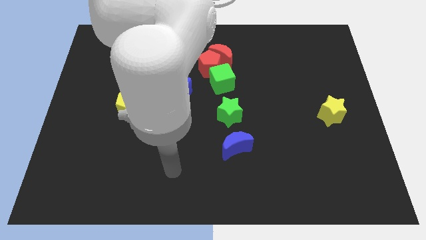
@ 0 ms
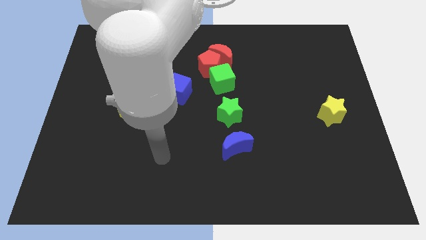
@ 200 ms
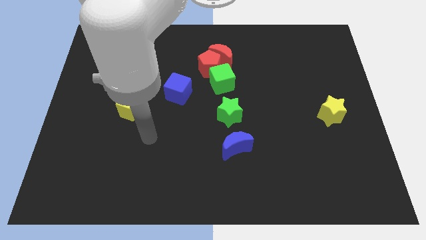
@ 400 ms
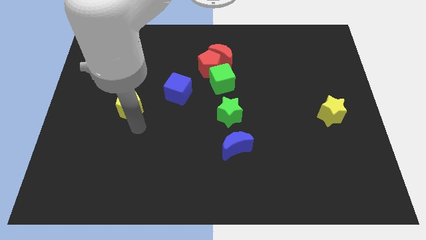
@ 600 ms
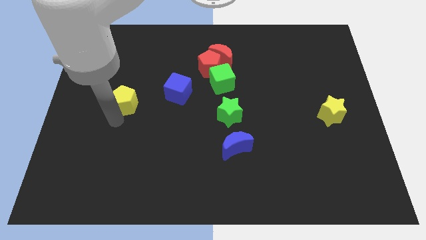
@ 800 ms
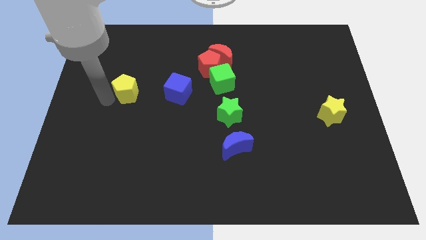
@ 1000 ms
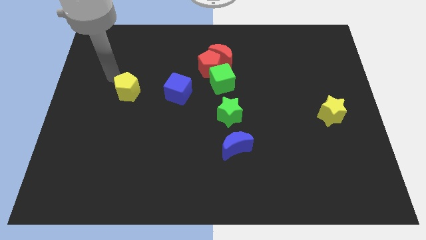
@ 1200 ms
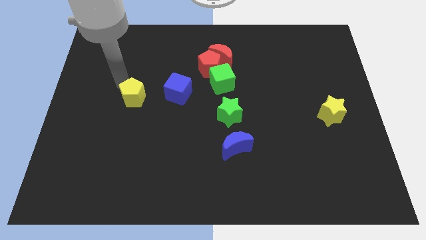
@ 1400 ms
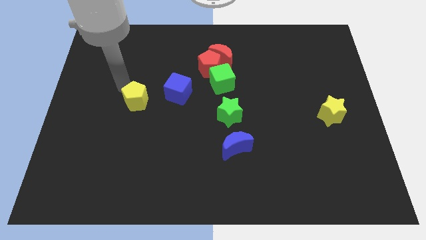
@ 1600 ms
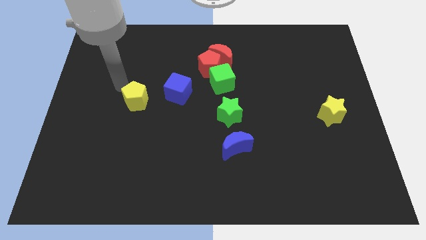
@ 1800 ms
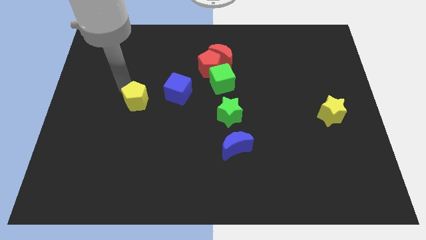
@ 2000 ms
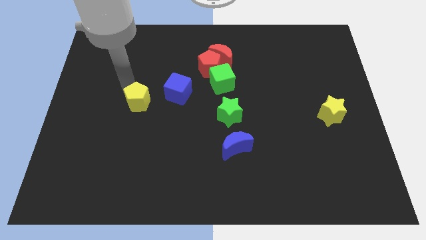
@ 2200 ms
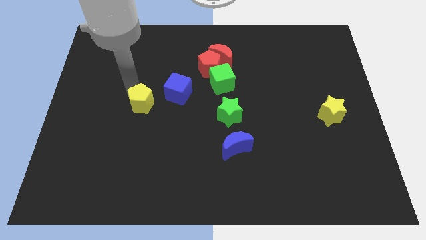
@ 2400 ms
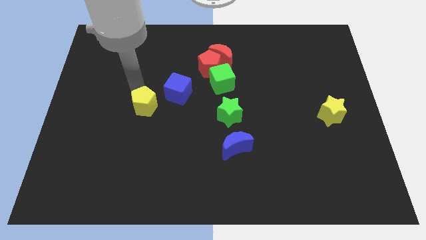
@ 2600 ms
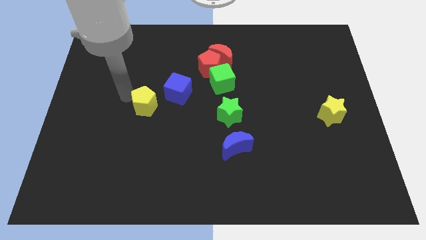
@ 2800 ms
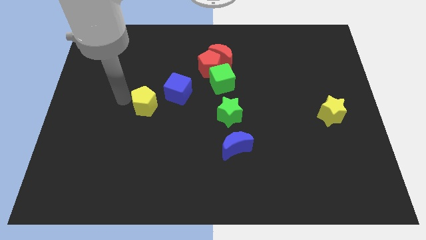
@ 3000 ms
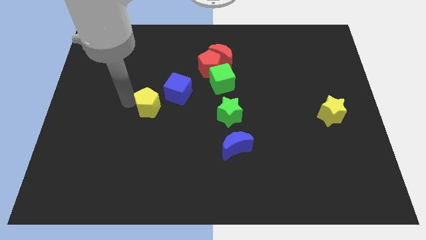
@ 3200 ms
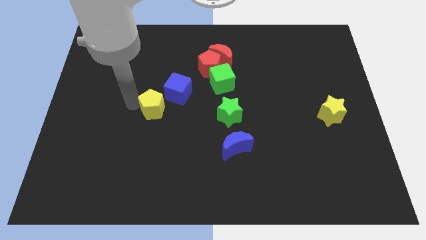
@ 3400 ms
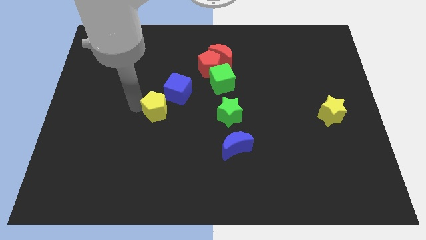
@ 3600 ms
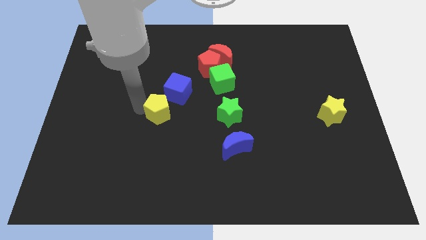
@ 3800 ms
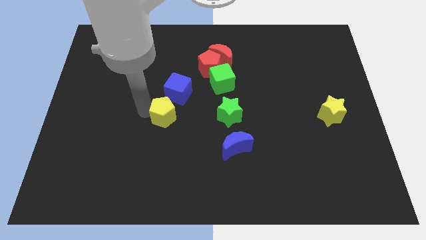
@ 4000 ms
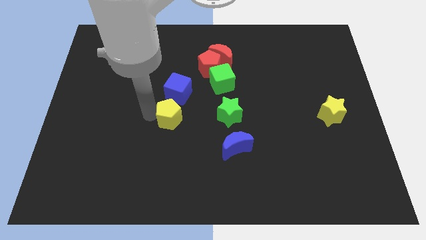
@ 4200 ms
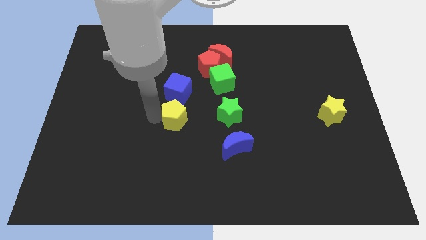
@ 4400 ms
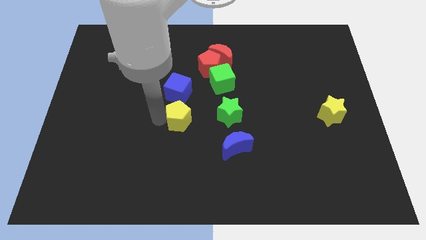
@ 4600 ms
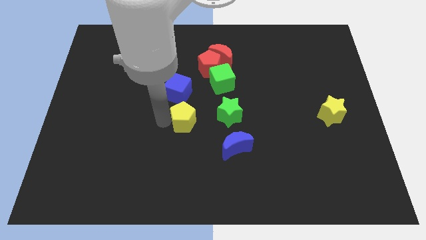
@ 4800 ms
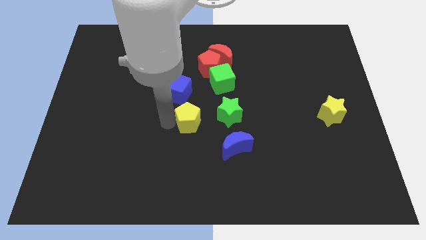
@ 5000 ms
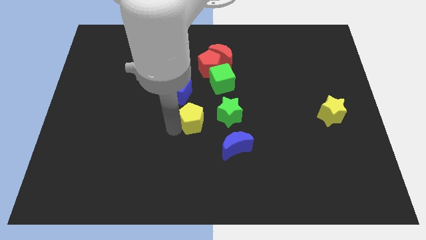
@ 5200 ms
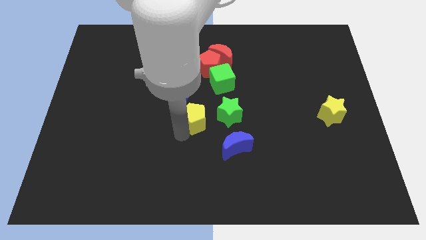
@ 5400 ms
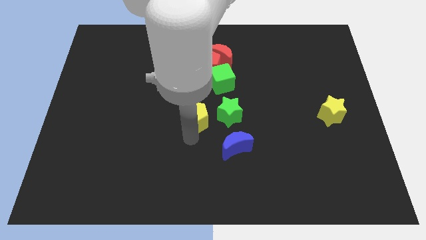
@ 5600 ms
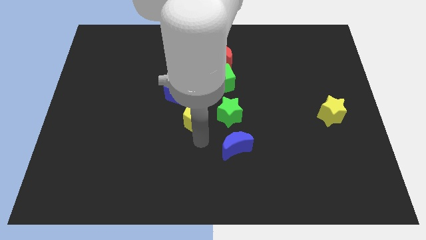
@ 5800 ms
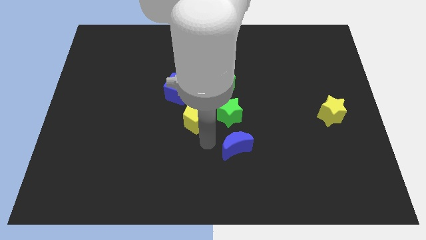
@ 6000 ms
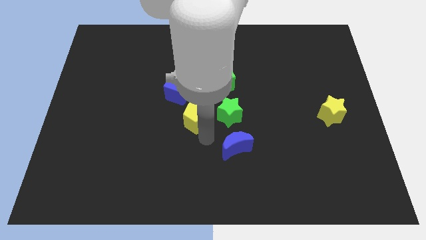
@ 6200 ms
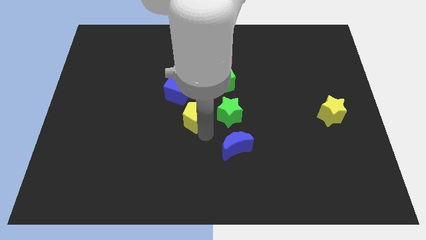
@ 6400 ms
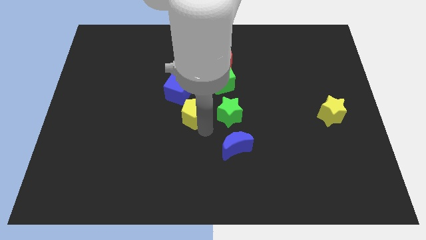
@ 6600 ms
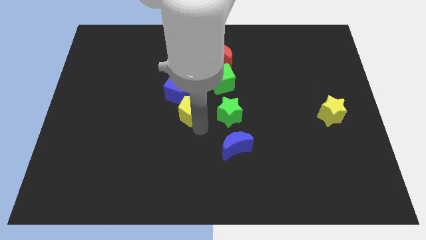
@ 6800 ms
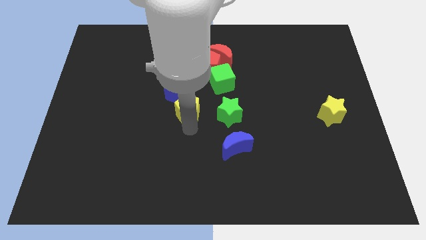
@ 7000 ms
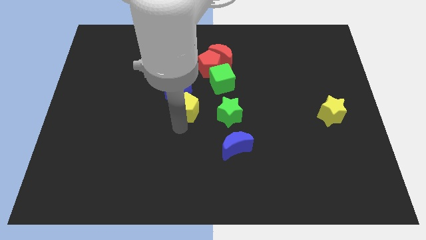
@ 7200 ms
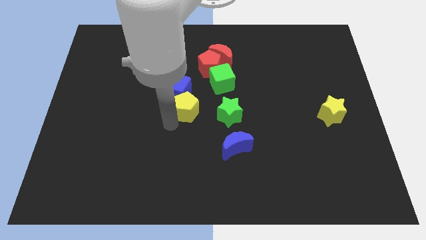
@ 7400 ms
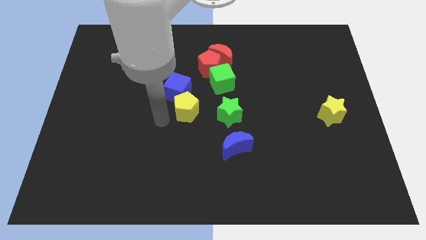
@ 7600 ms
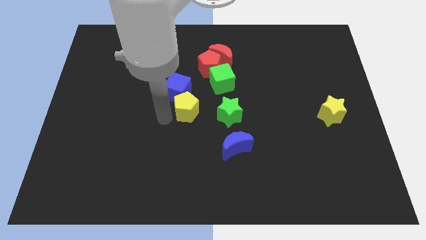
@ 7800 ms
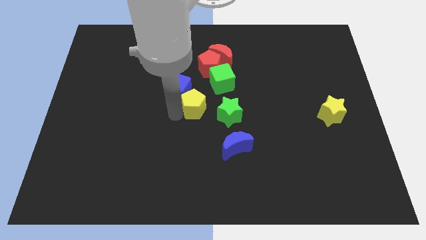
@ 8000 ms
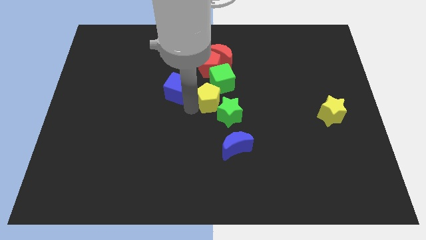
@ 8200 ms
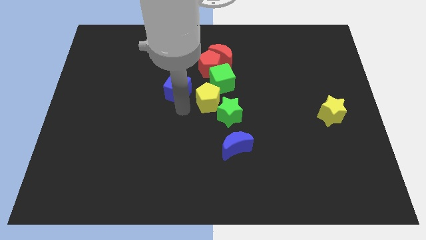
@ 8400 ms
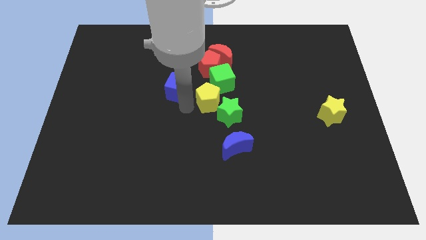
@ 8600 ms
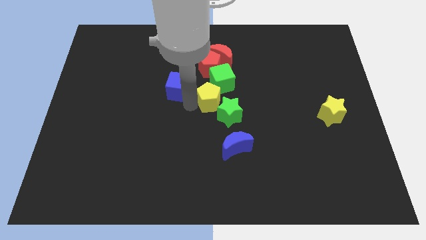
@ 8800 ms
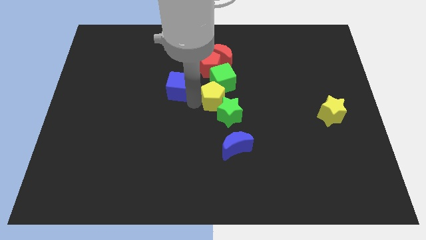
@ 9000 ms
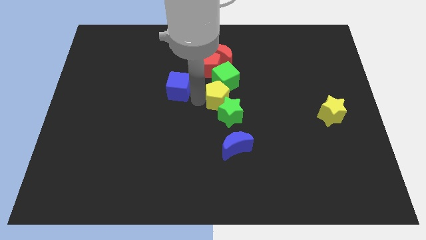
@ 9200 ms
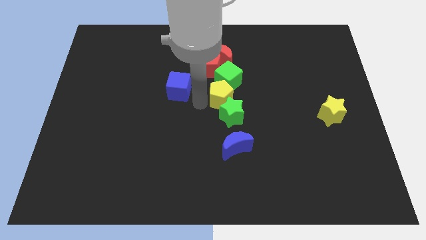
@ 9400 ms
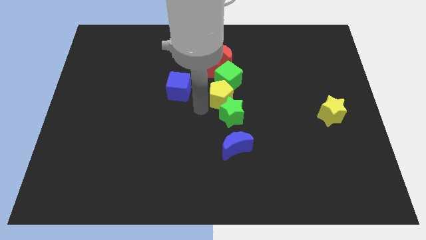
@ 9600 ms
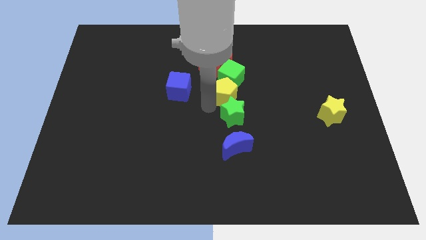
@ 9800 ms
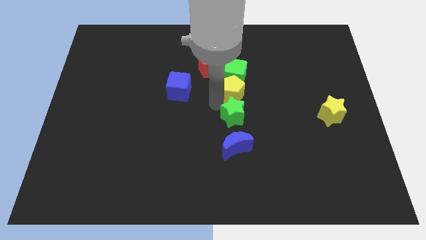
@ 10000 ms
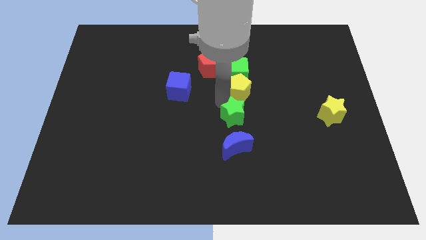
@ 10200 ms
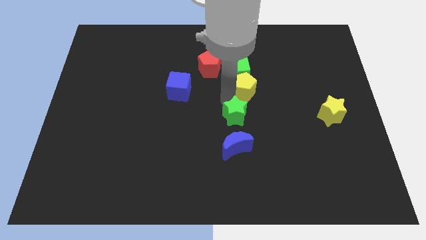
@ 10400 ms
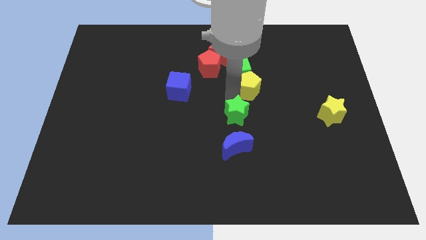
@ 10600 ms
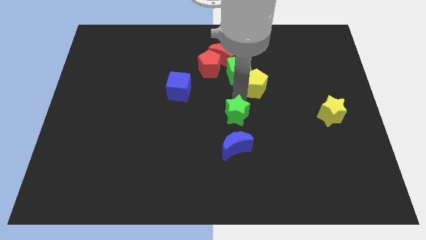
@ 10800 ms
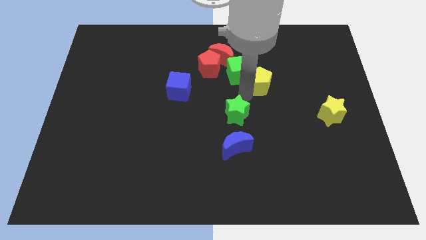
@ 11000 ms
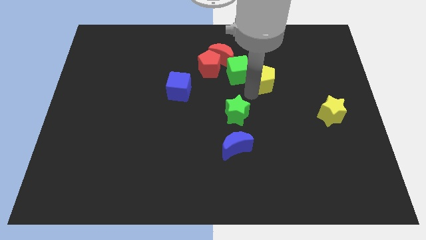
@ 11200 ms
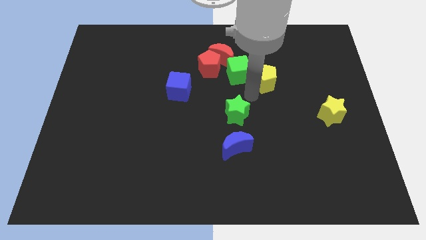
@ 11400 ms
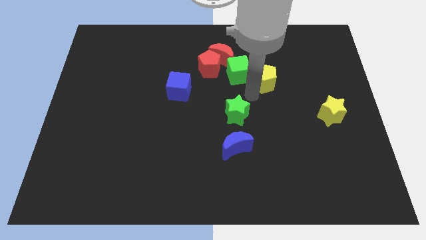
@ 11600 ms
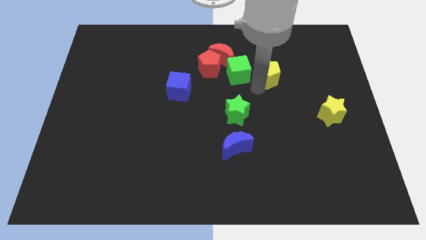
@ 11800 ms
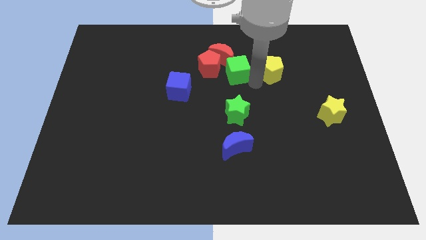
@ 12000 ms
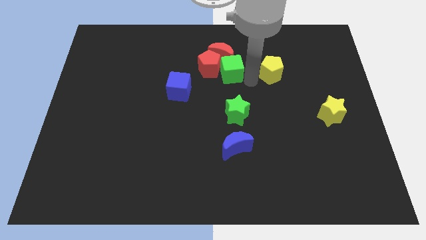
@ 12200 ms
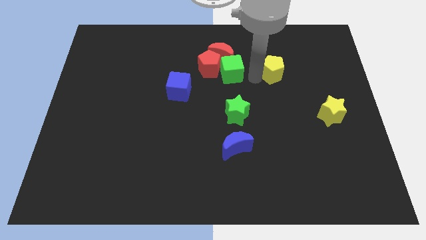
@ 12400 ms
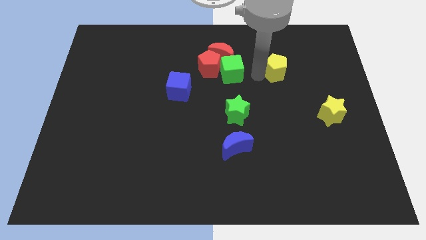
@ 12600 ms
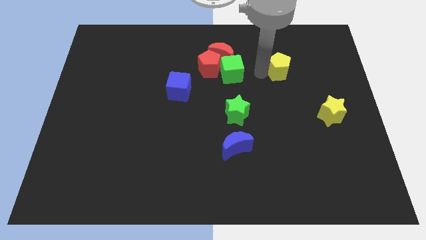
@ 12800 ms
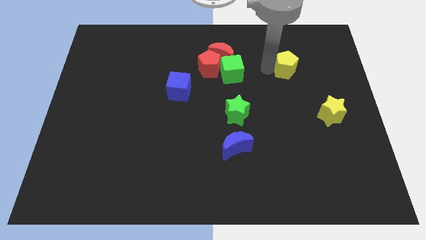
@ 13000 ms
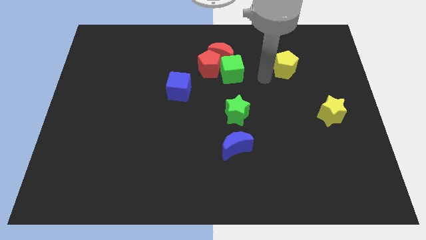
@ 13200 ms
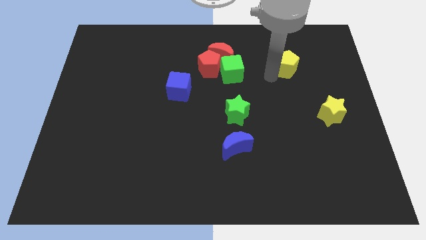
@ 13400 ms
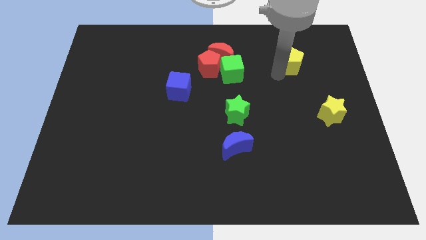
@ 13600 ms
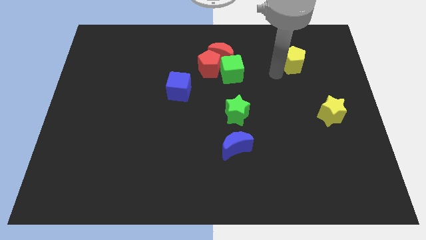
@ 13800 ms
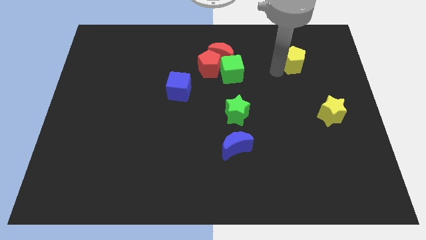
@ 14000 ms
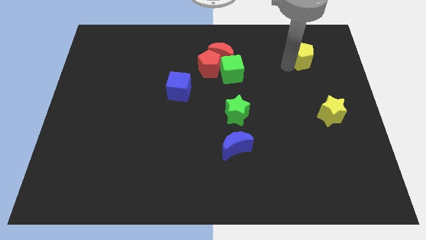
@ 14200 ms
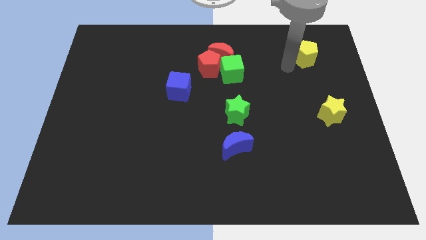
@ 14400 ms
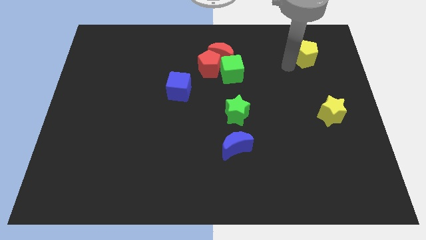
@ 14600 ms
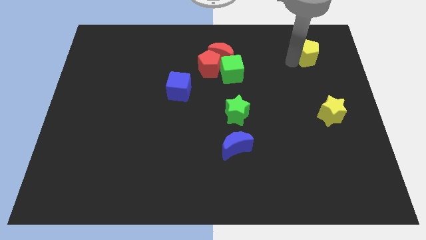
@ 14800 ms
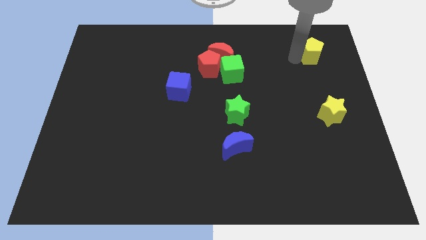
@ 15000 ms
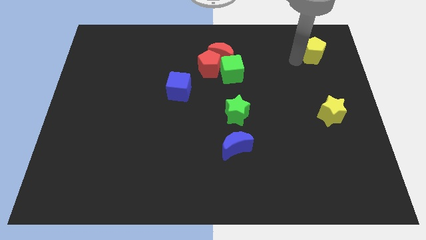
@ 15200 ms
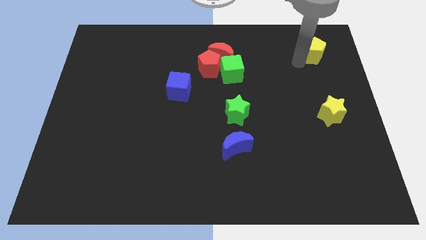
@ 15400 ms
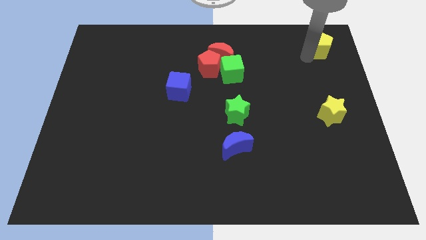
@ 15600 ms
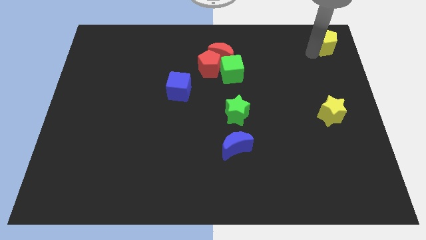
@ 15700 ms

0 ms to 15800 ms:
move the yellow pentagon to the top right corner
